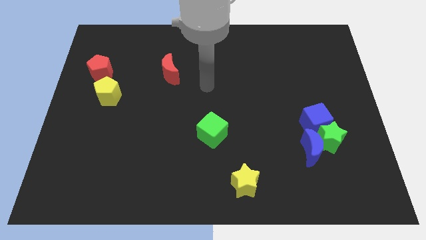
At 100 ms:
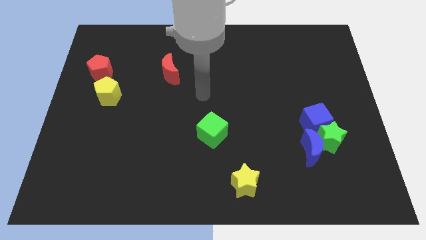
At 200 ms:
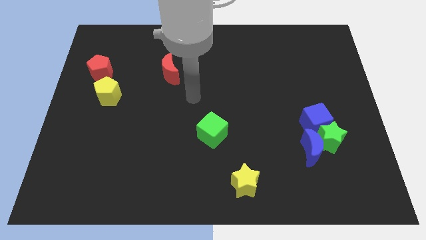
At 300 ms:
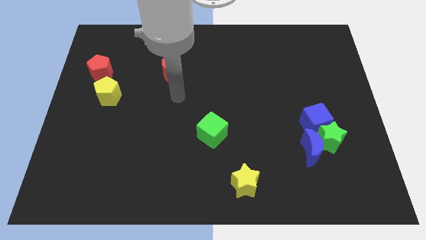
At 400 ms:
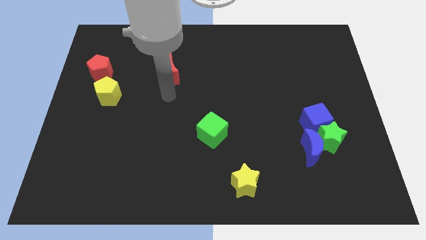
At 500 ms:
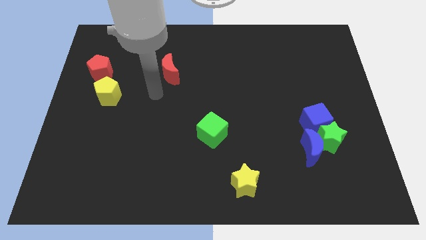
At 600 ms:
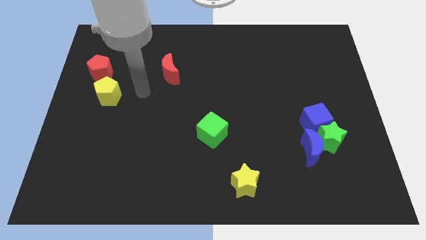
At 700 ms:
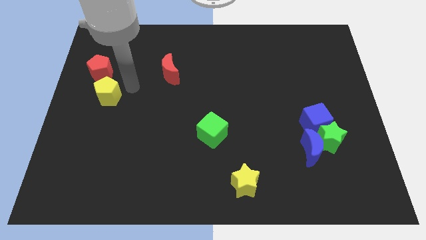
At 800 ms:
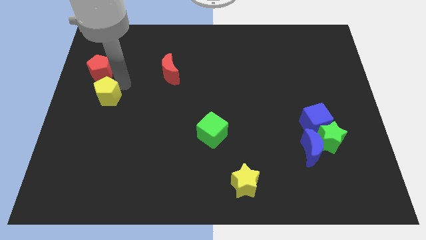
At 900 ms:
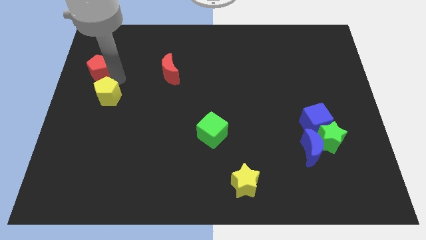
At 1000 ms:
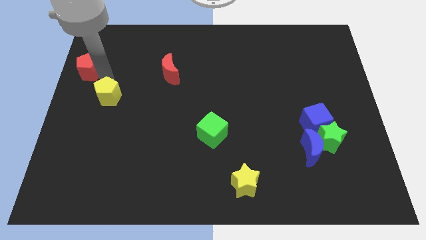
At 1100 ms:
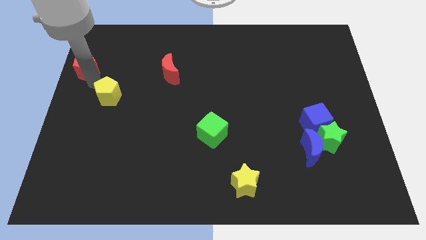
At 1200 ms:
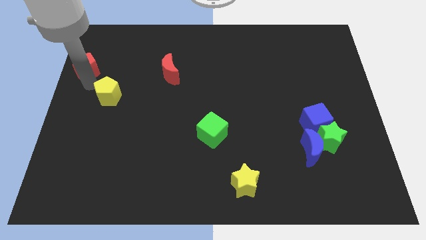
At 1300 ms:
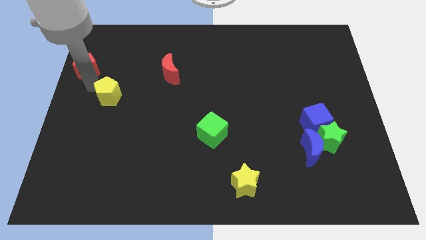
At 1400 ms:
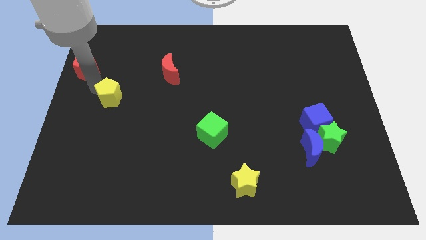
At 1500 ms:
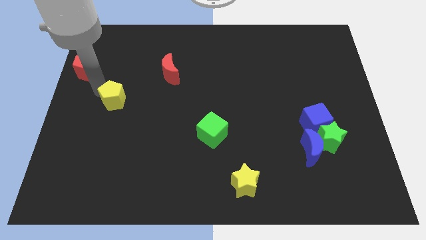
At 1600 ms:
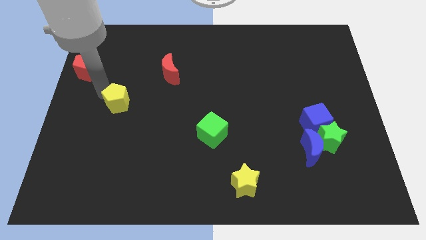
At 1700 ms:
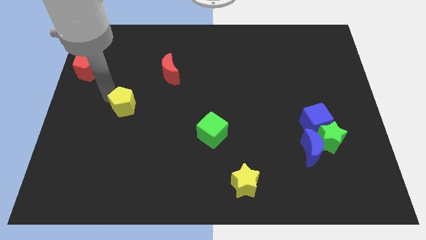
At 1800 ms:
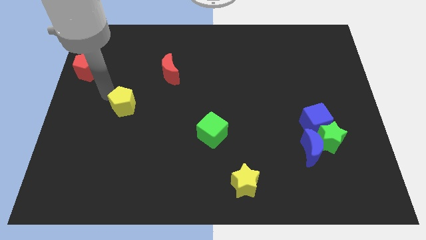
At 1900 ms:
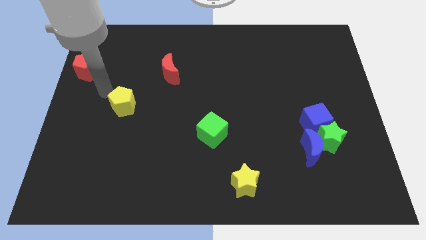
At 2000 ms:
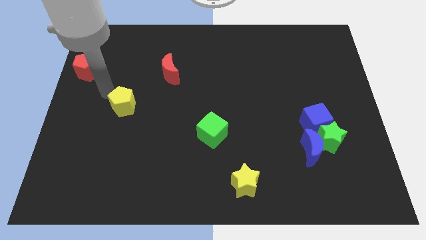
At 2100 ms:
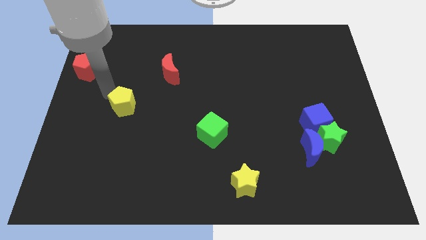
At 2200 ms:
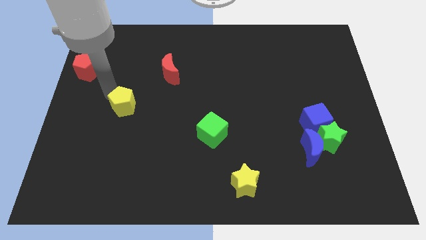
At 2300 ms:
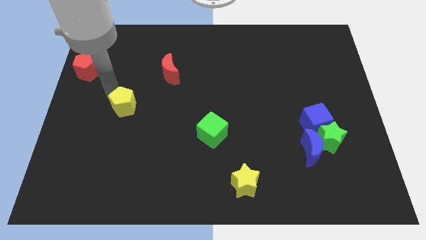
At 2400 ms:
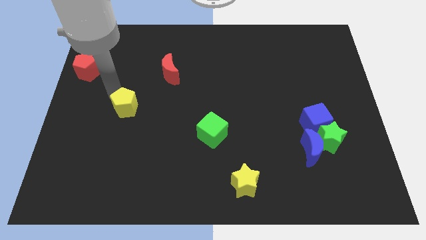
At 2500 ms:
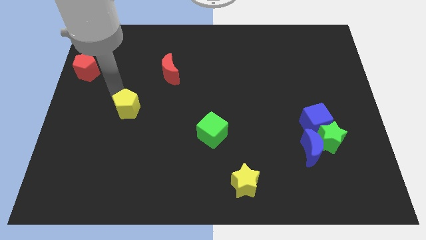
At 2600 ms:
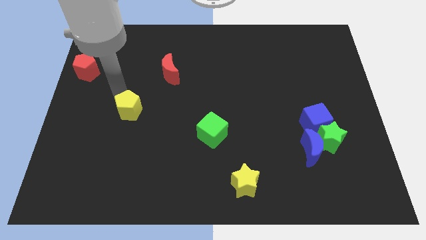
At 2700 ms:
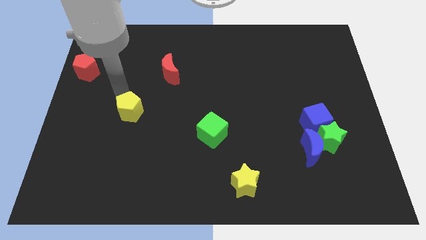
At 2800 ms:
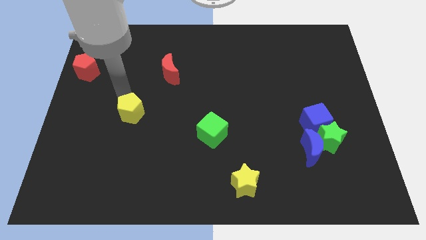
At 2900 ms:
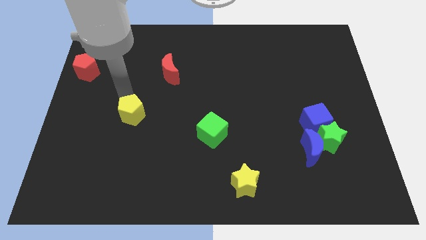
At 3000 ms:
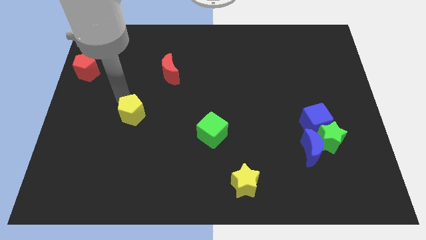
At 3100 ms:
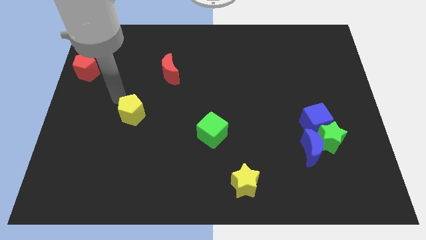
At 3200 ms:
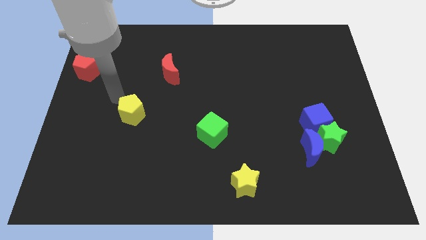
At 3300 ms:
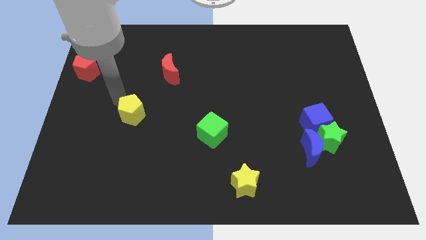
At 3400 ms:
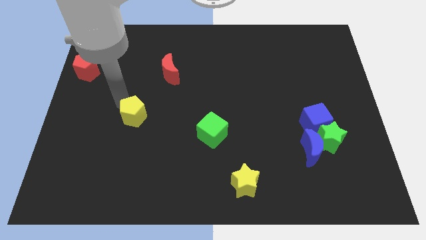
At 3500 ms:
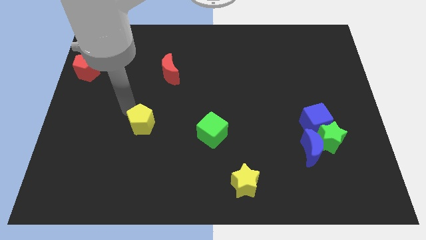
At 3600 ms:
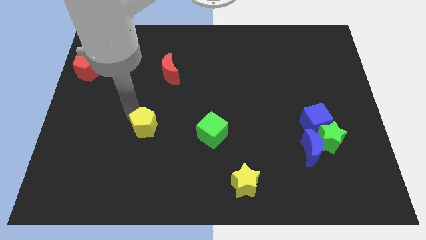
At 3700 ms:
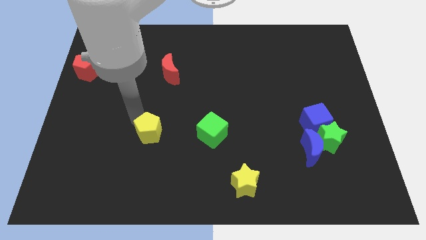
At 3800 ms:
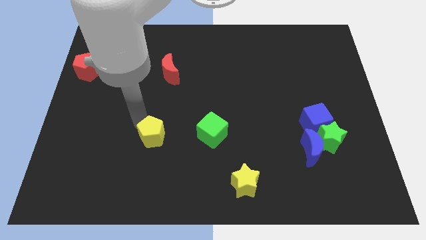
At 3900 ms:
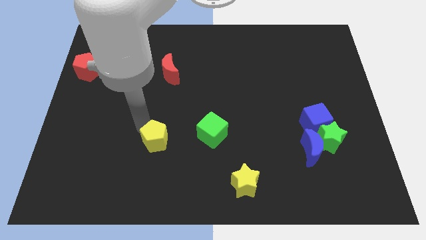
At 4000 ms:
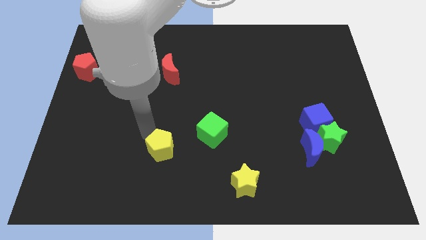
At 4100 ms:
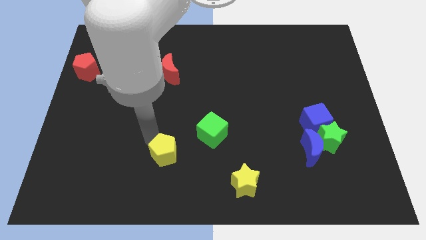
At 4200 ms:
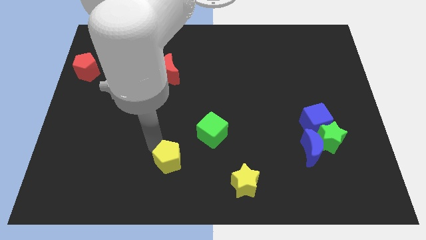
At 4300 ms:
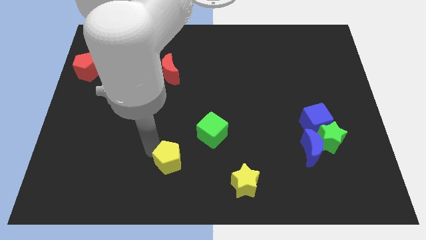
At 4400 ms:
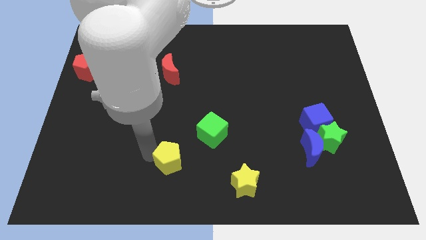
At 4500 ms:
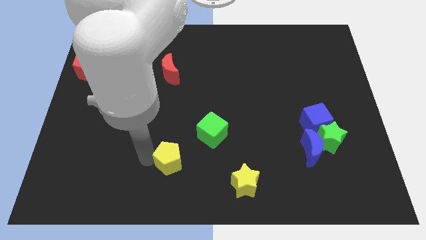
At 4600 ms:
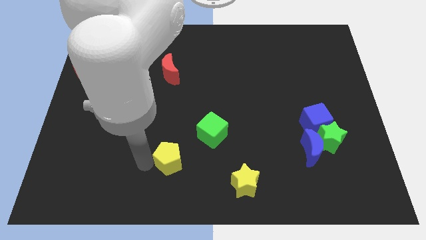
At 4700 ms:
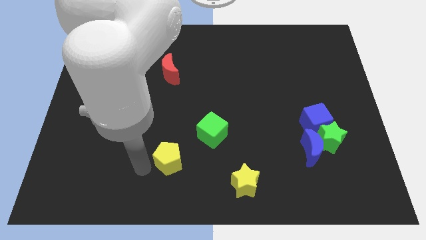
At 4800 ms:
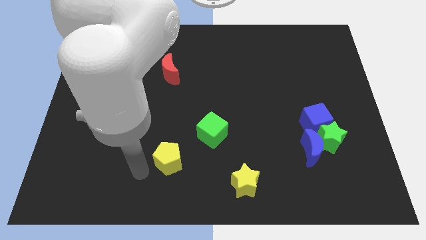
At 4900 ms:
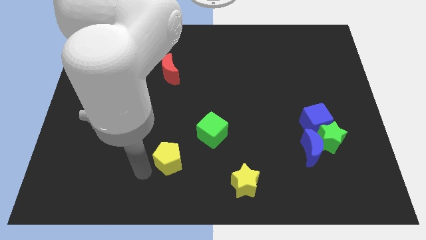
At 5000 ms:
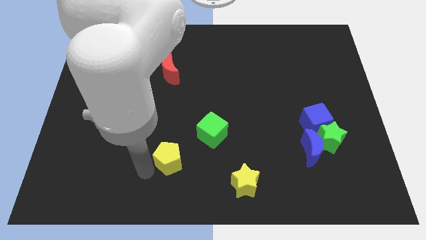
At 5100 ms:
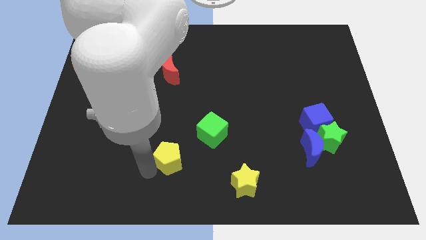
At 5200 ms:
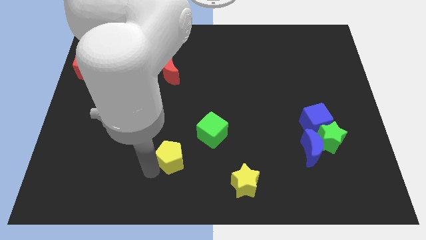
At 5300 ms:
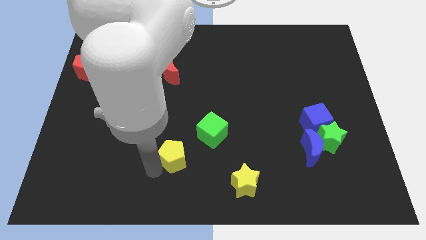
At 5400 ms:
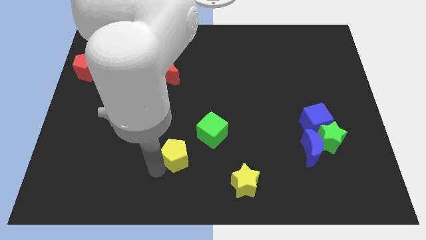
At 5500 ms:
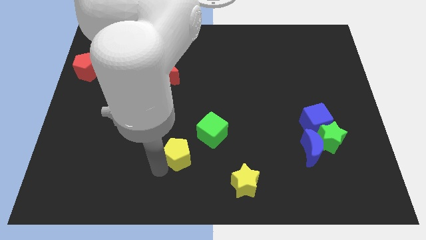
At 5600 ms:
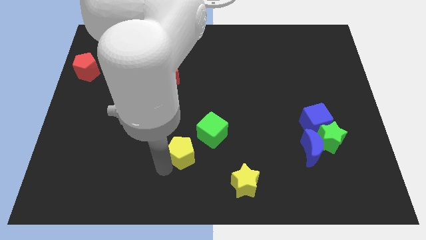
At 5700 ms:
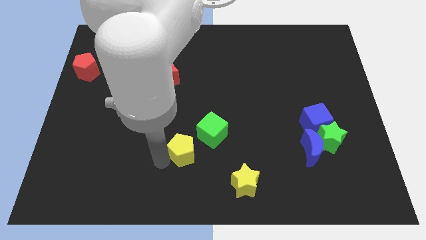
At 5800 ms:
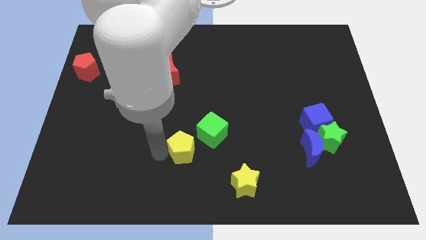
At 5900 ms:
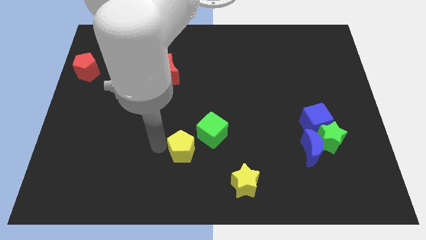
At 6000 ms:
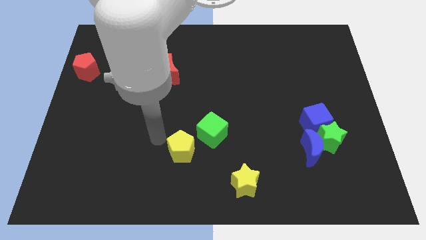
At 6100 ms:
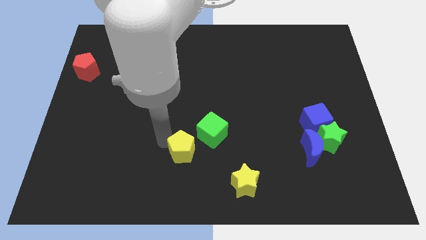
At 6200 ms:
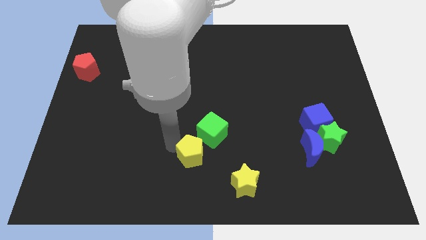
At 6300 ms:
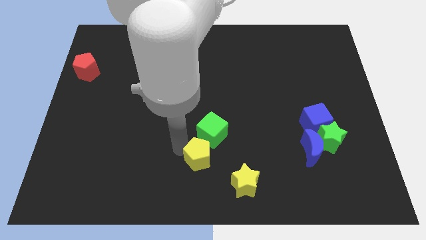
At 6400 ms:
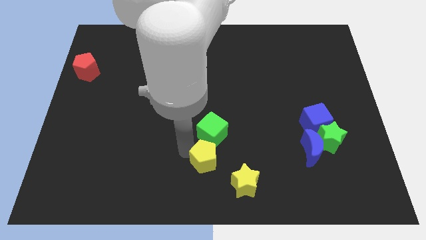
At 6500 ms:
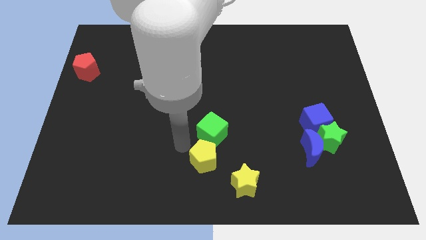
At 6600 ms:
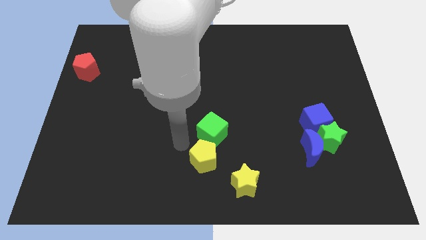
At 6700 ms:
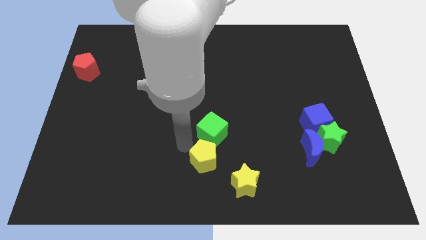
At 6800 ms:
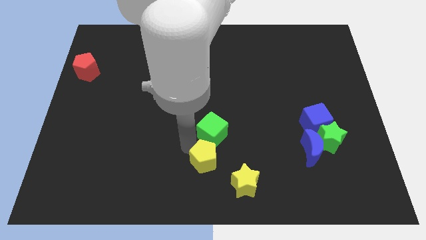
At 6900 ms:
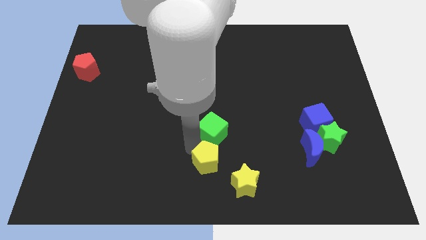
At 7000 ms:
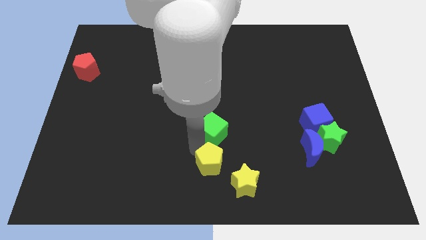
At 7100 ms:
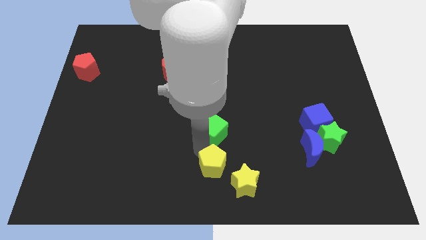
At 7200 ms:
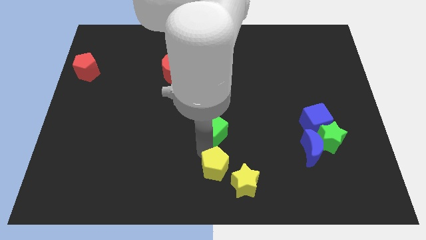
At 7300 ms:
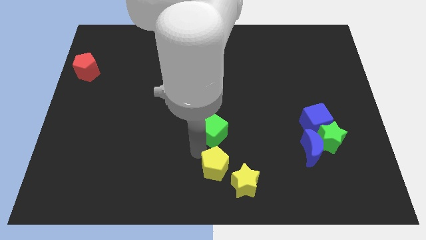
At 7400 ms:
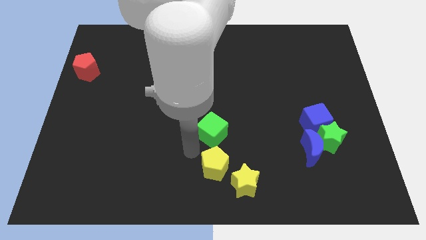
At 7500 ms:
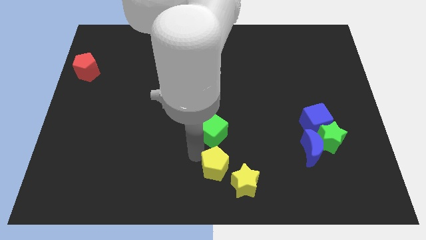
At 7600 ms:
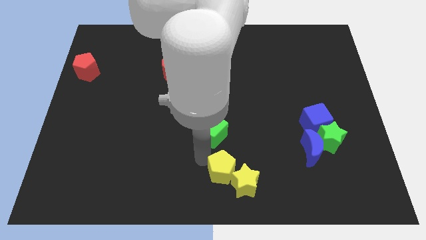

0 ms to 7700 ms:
push the yellow pentagon close to the yellow star
